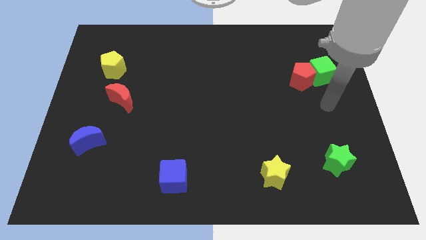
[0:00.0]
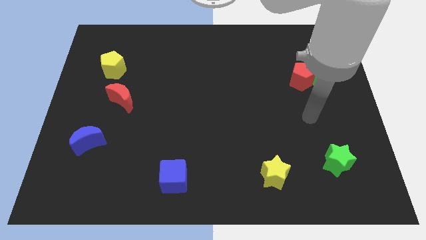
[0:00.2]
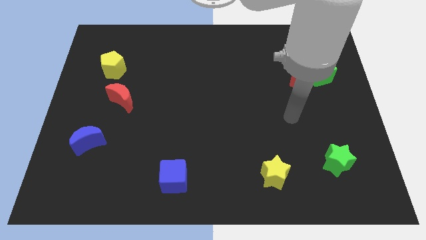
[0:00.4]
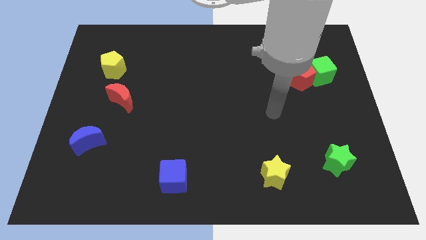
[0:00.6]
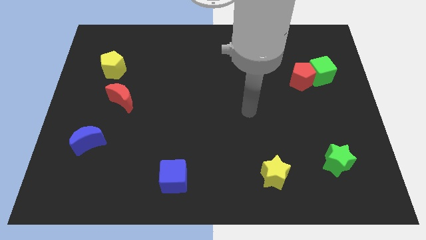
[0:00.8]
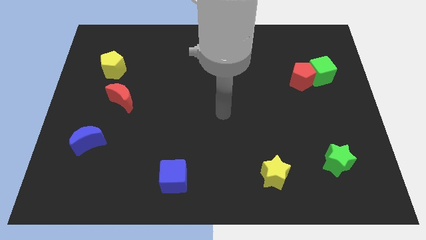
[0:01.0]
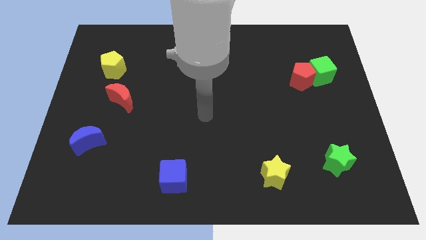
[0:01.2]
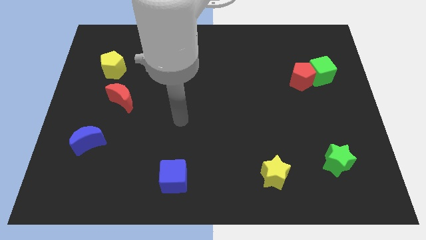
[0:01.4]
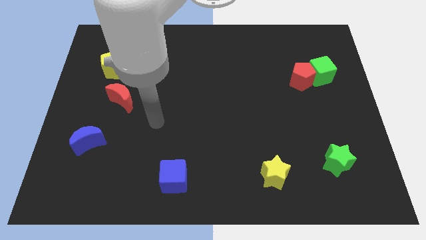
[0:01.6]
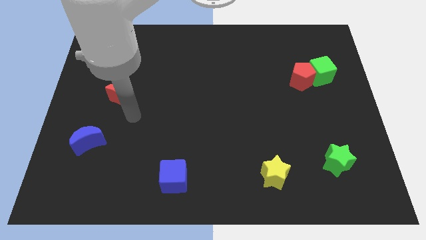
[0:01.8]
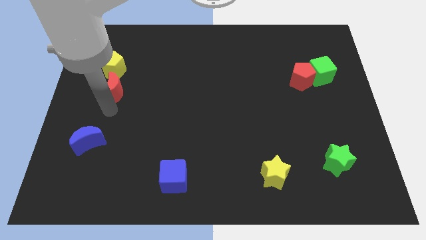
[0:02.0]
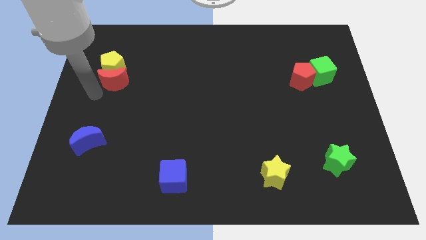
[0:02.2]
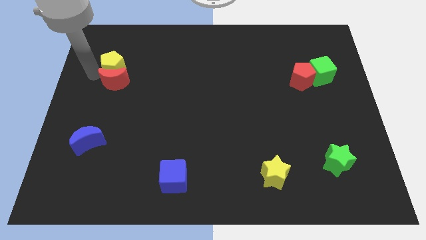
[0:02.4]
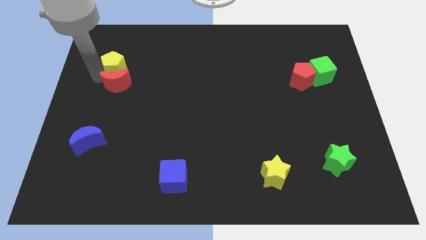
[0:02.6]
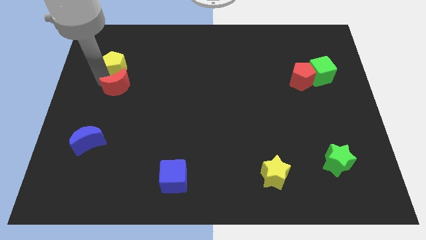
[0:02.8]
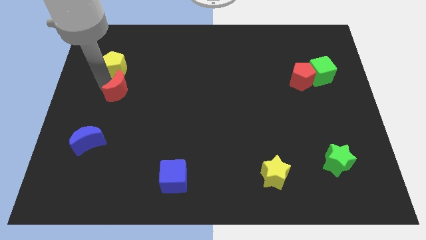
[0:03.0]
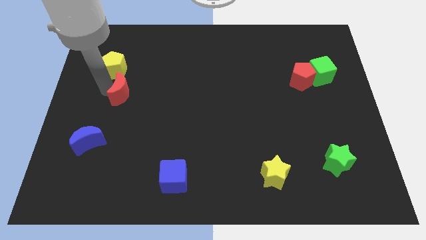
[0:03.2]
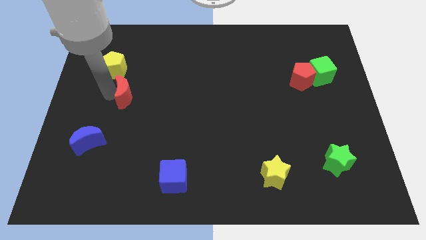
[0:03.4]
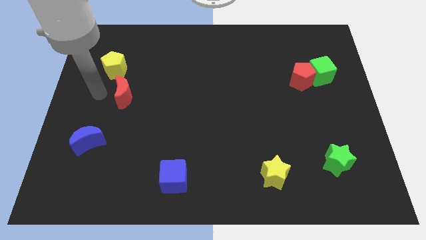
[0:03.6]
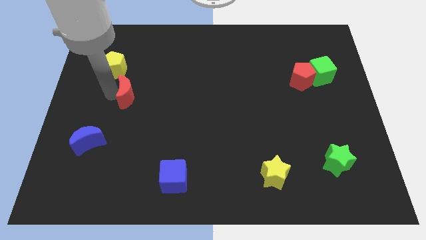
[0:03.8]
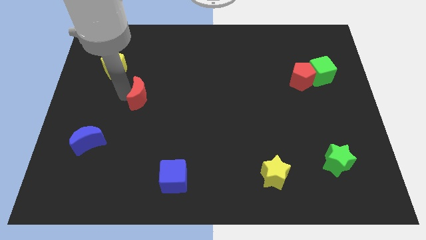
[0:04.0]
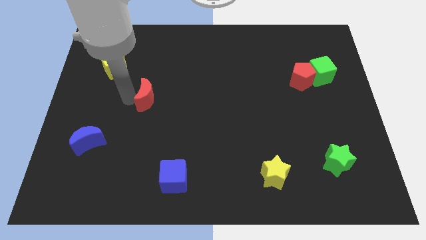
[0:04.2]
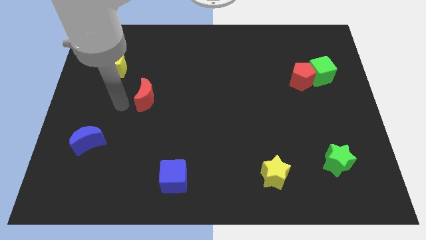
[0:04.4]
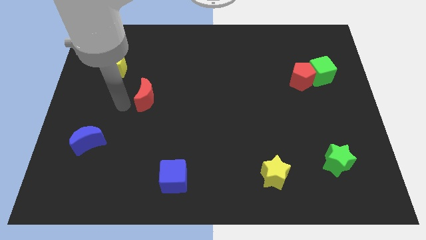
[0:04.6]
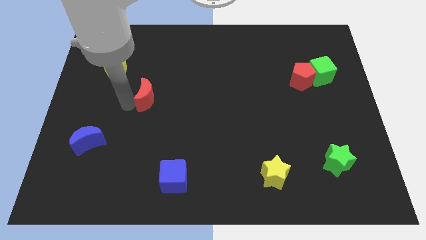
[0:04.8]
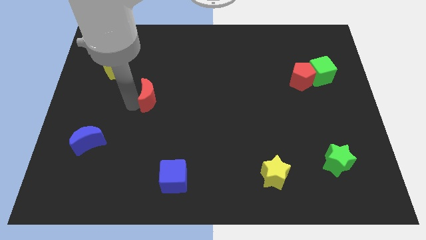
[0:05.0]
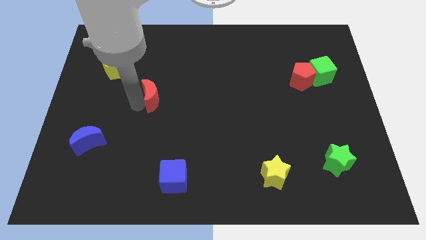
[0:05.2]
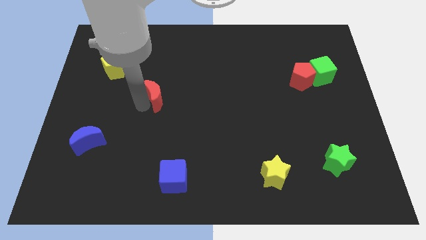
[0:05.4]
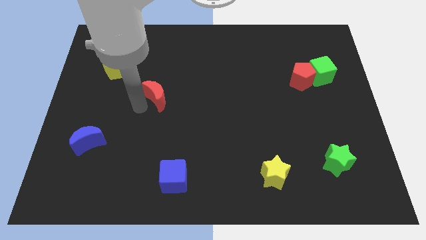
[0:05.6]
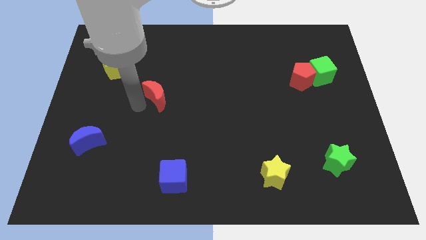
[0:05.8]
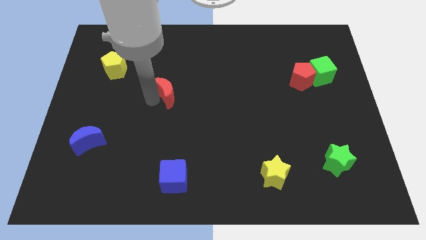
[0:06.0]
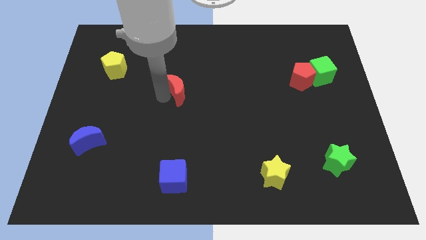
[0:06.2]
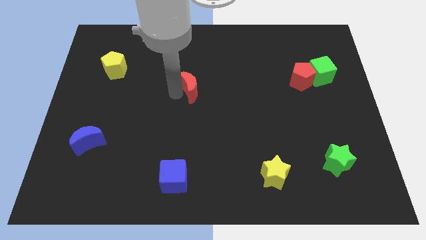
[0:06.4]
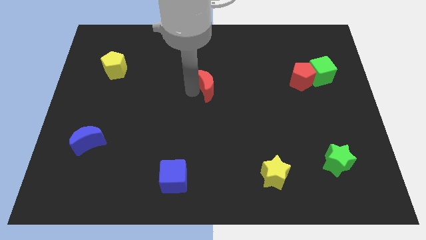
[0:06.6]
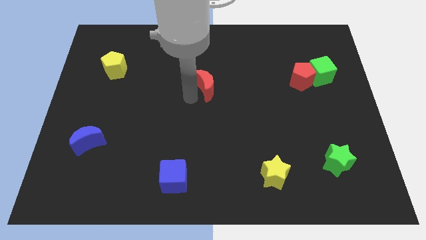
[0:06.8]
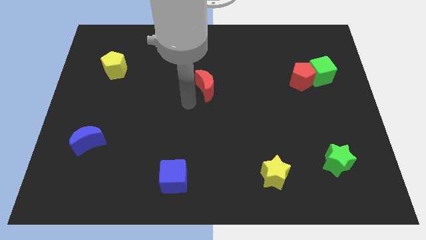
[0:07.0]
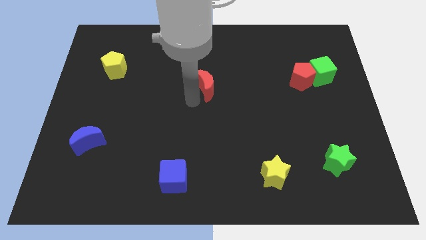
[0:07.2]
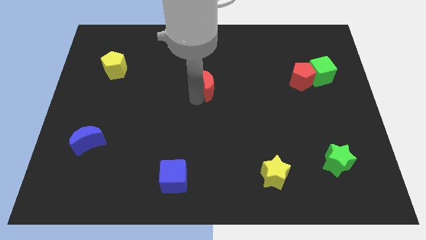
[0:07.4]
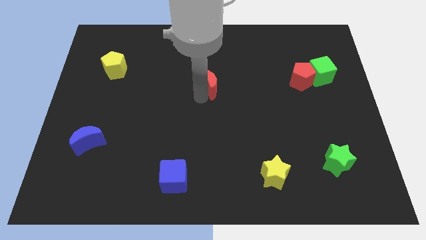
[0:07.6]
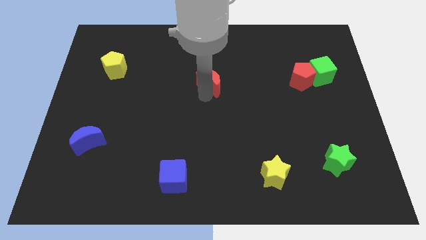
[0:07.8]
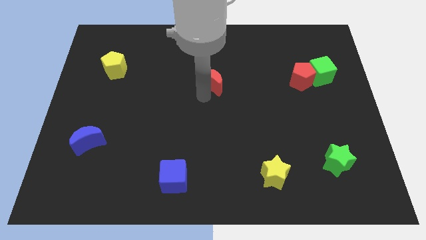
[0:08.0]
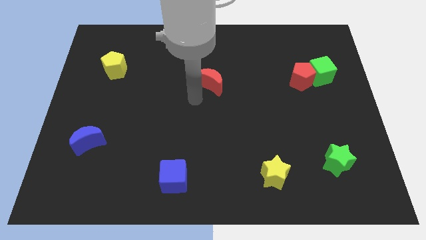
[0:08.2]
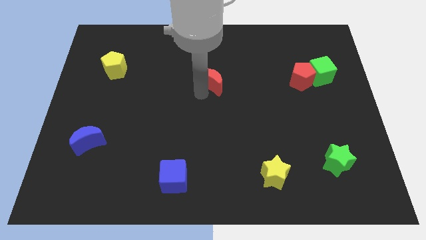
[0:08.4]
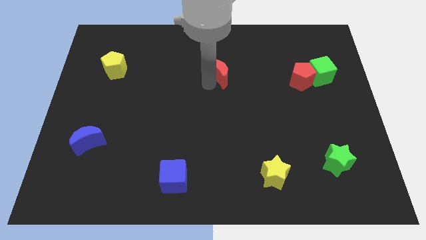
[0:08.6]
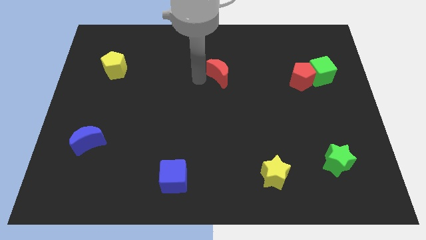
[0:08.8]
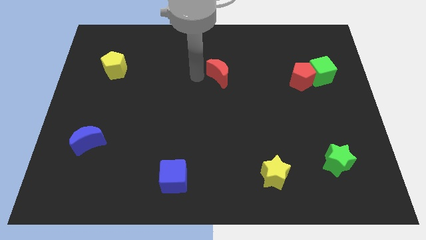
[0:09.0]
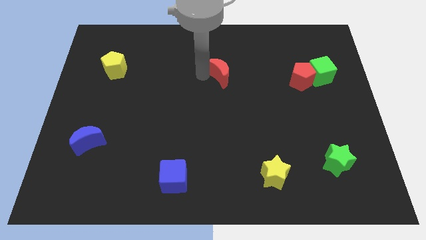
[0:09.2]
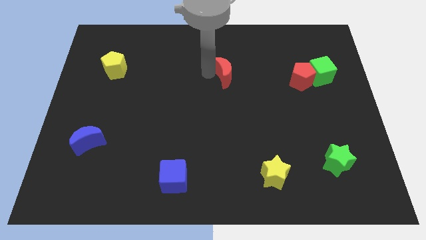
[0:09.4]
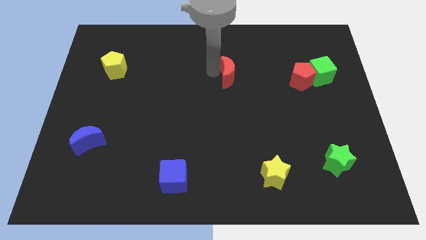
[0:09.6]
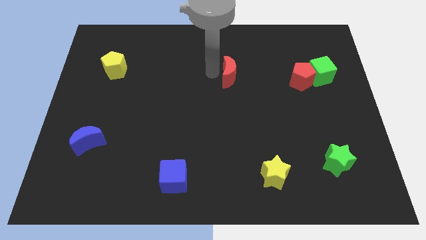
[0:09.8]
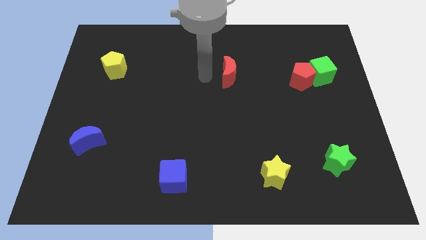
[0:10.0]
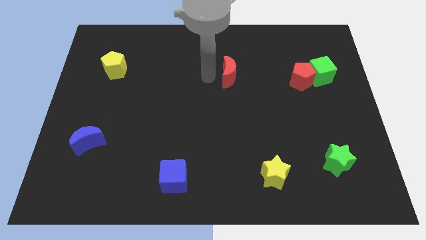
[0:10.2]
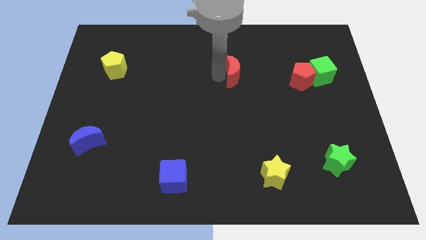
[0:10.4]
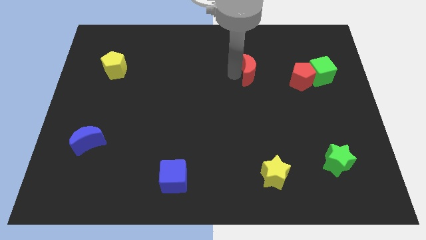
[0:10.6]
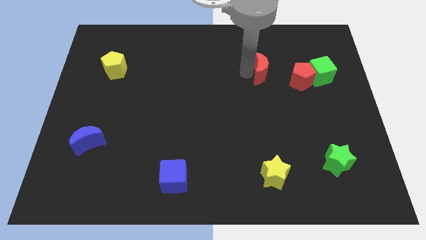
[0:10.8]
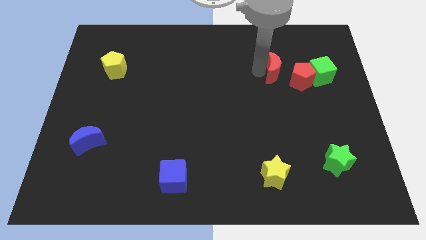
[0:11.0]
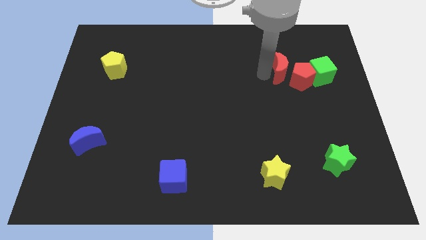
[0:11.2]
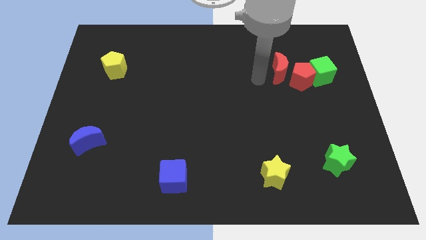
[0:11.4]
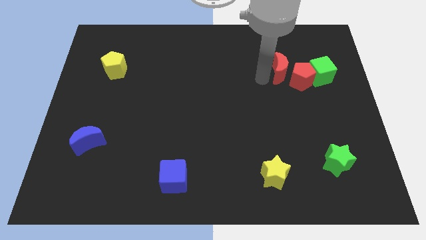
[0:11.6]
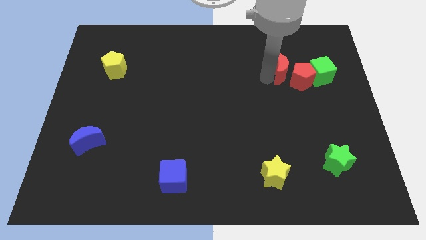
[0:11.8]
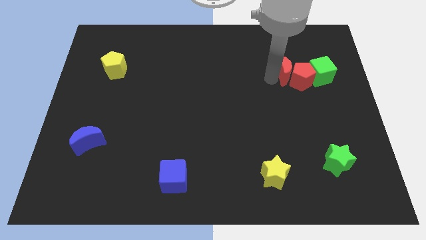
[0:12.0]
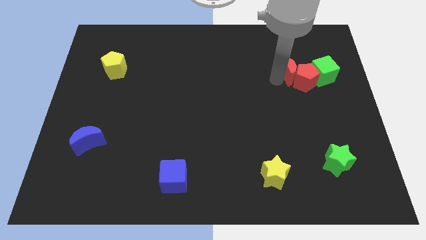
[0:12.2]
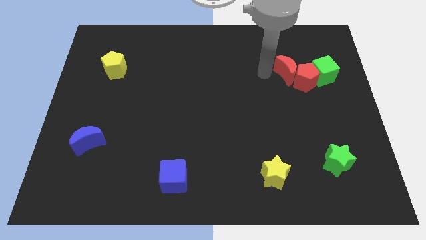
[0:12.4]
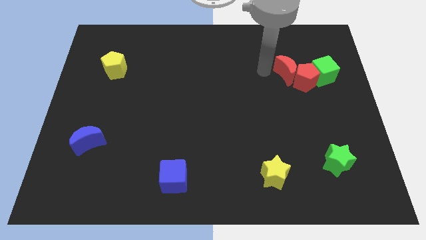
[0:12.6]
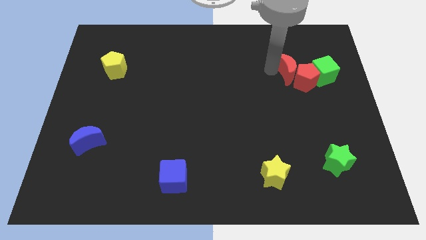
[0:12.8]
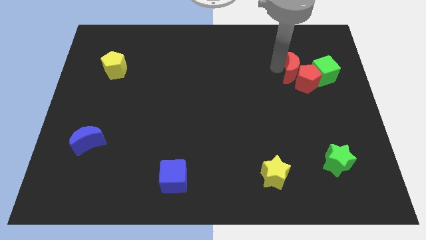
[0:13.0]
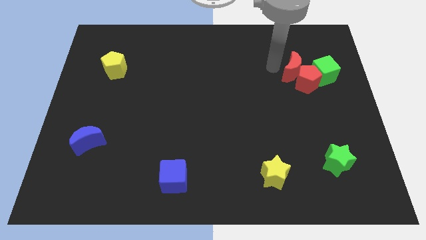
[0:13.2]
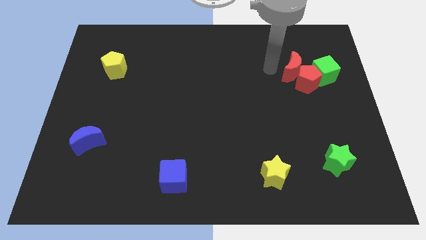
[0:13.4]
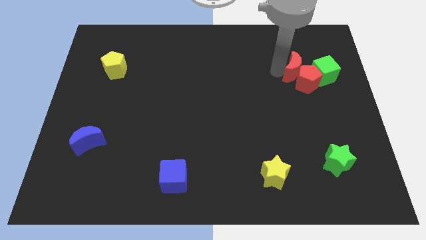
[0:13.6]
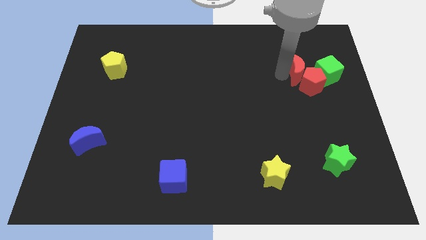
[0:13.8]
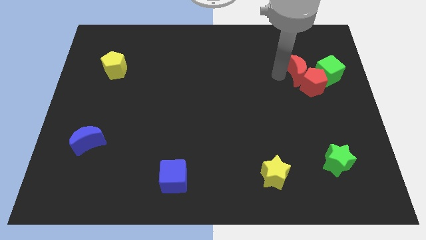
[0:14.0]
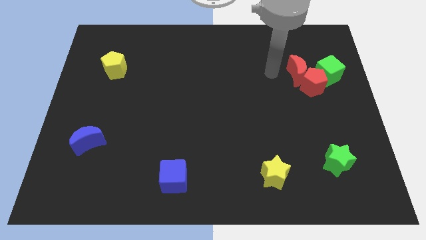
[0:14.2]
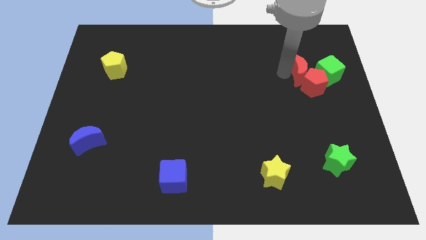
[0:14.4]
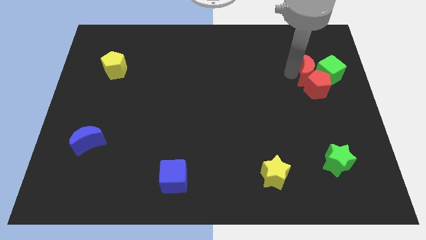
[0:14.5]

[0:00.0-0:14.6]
push the red moon to the green cube
